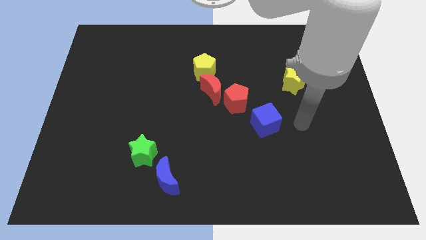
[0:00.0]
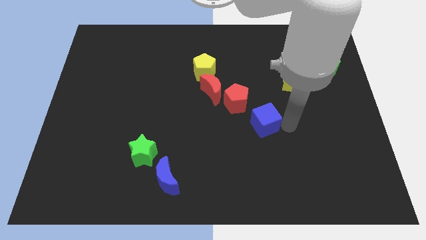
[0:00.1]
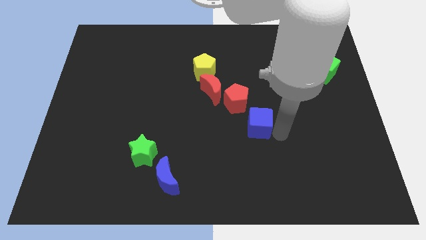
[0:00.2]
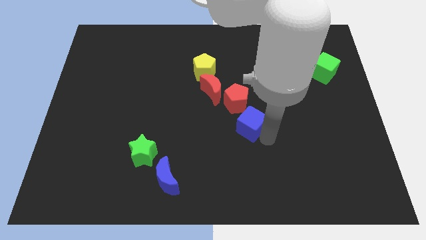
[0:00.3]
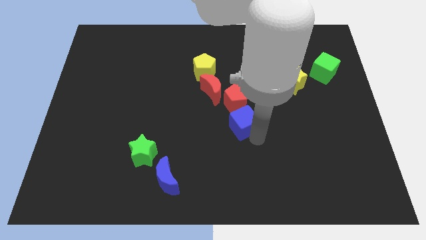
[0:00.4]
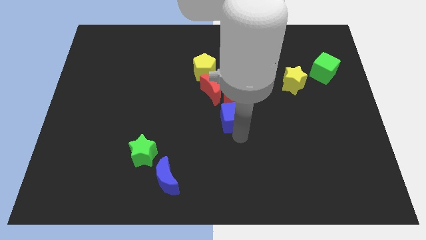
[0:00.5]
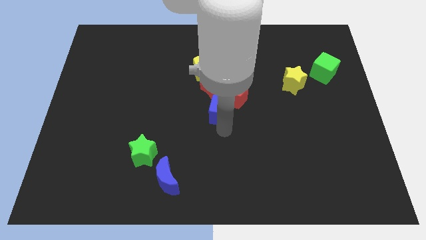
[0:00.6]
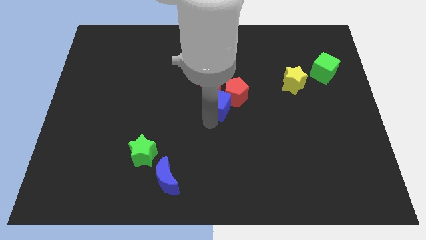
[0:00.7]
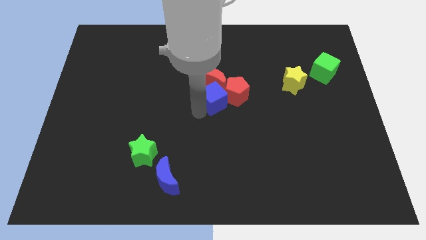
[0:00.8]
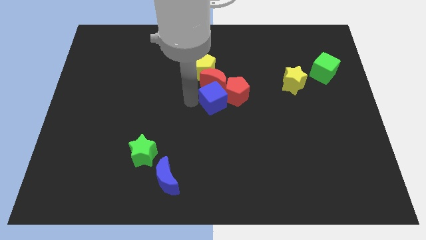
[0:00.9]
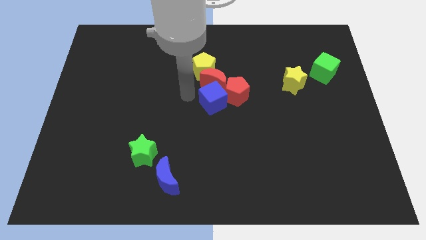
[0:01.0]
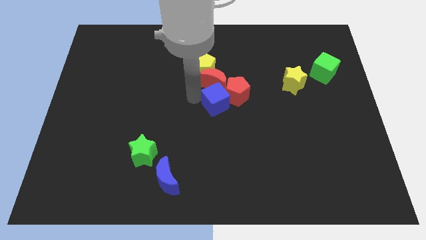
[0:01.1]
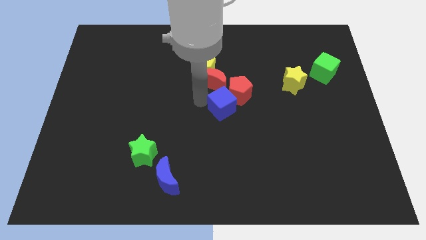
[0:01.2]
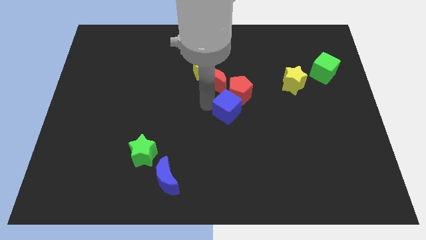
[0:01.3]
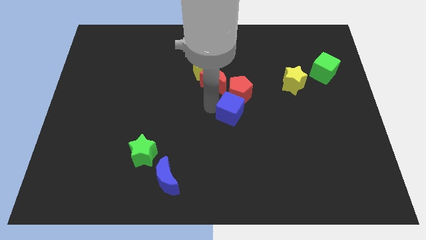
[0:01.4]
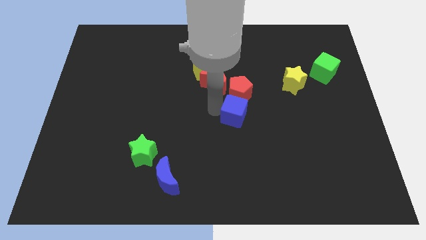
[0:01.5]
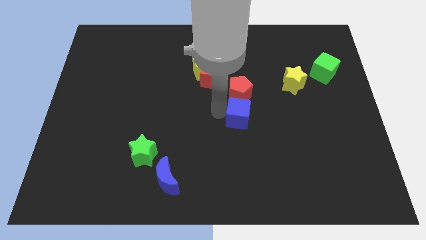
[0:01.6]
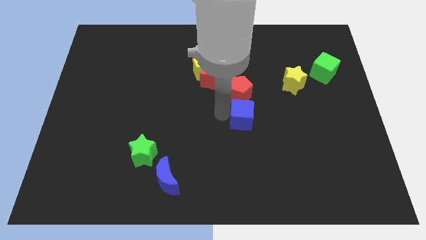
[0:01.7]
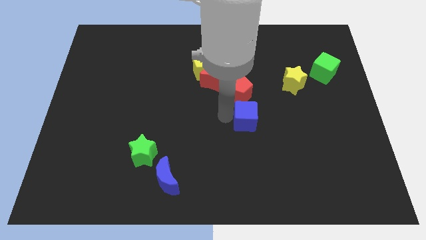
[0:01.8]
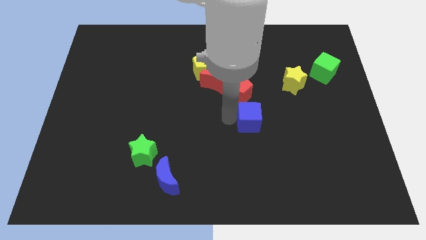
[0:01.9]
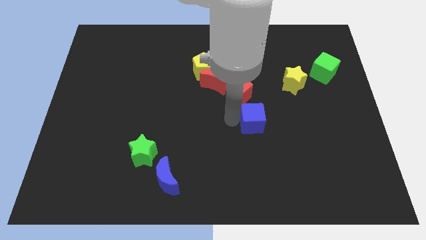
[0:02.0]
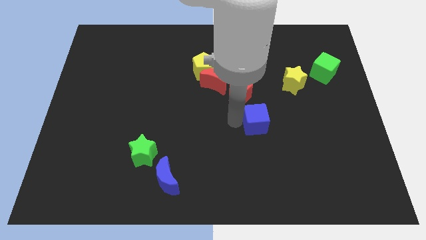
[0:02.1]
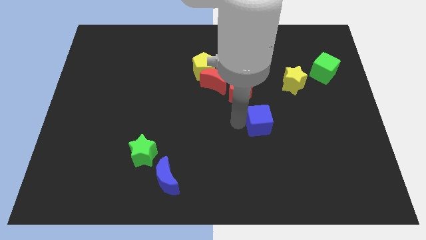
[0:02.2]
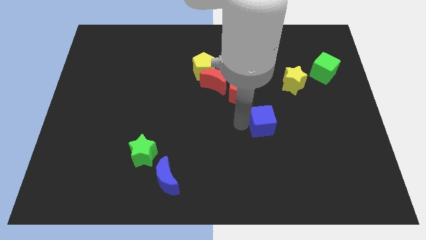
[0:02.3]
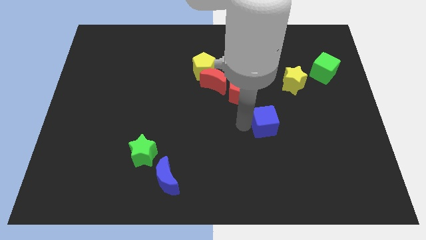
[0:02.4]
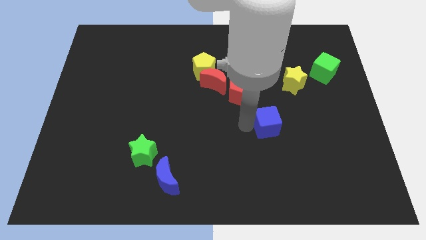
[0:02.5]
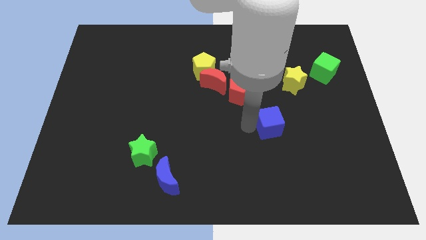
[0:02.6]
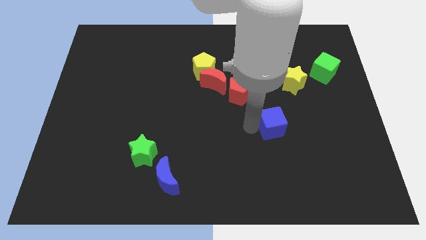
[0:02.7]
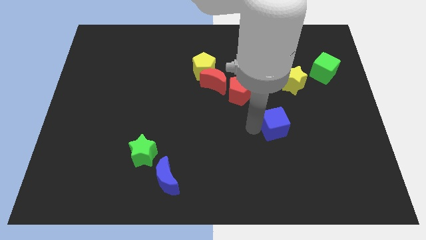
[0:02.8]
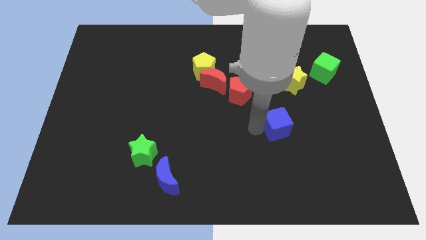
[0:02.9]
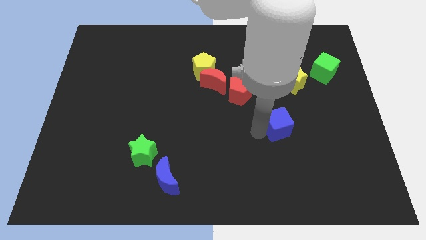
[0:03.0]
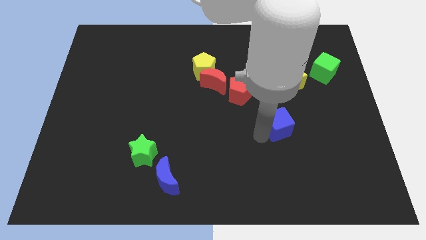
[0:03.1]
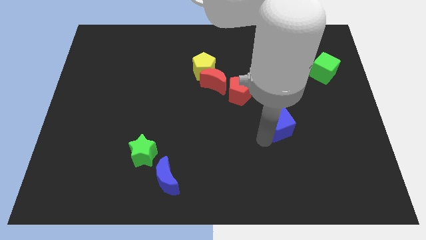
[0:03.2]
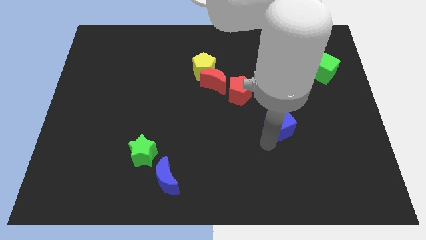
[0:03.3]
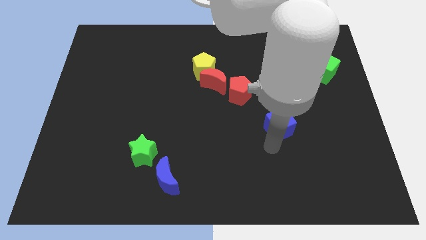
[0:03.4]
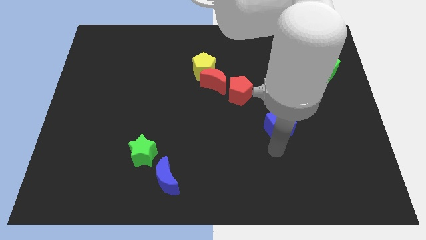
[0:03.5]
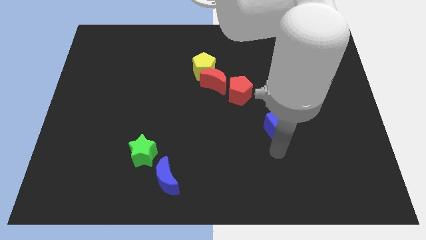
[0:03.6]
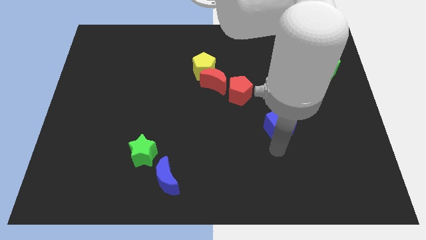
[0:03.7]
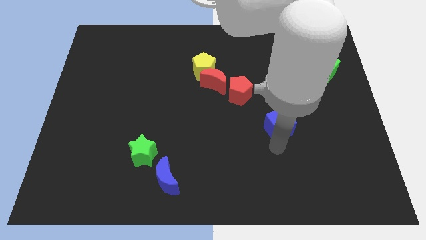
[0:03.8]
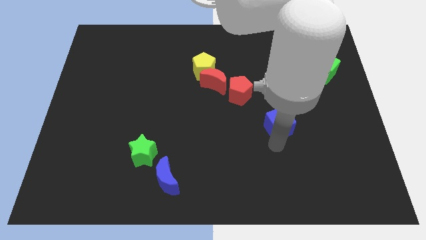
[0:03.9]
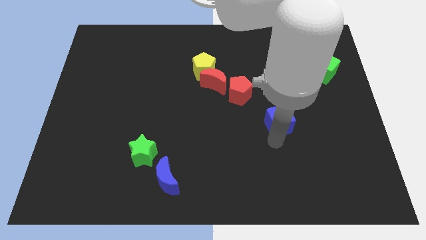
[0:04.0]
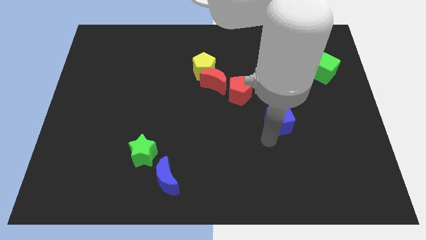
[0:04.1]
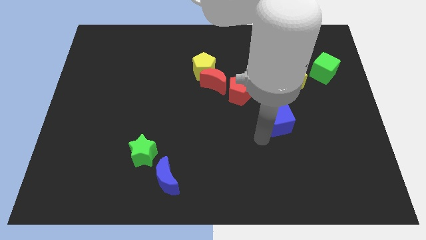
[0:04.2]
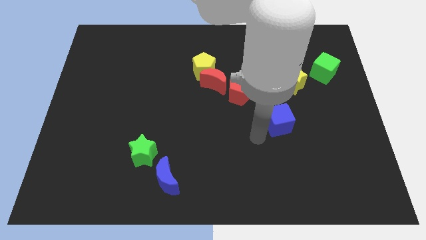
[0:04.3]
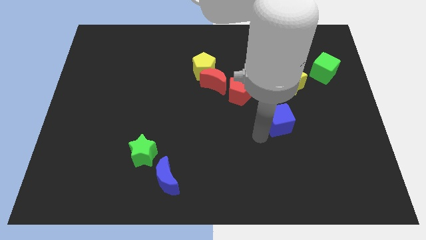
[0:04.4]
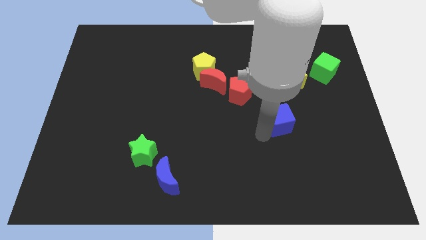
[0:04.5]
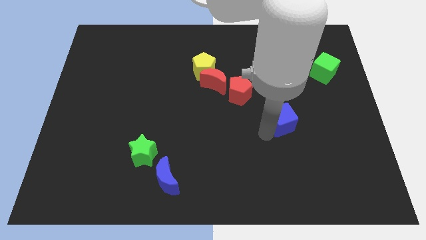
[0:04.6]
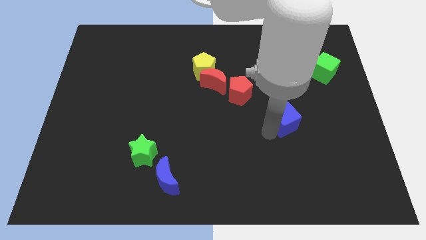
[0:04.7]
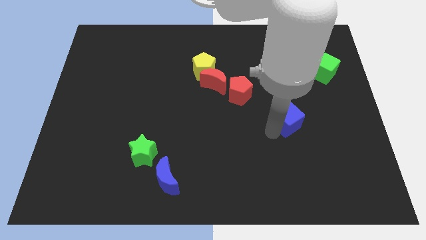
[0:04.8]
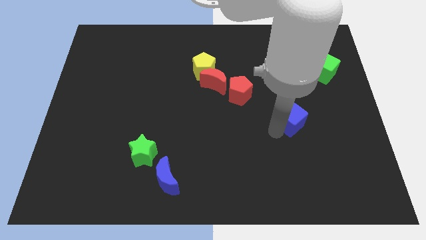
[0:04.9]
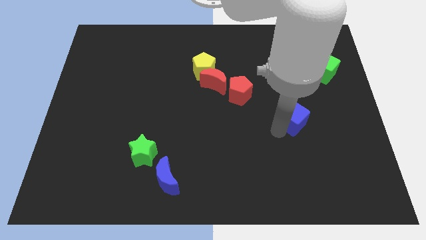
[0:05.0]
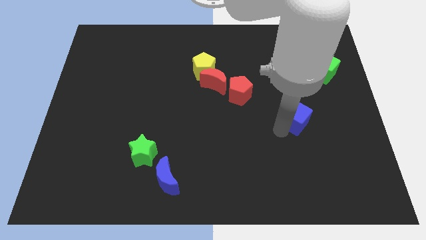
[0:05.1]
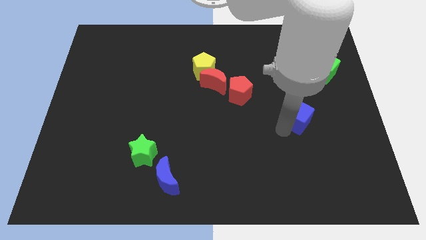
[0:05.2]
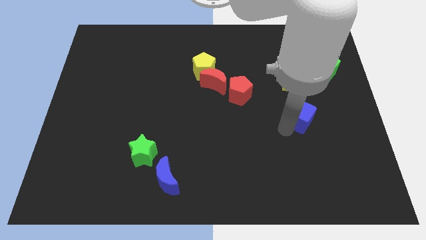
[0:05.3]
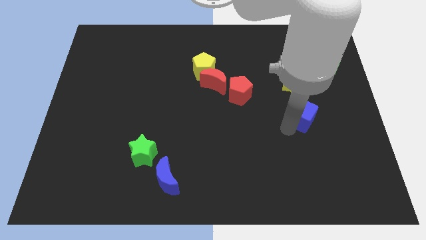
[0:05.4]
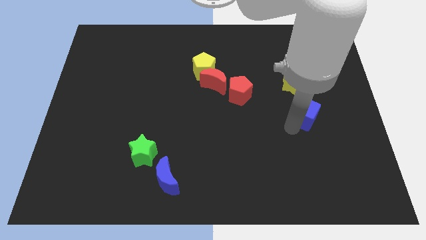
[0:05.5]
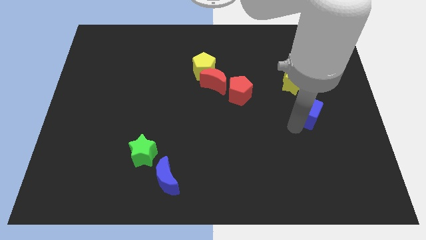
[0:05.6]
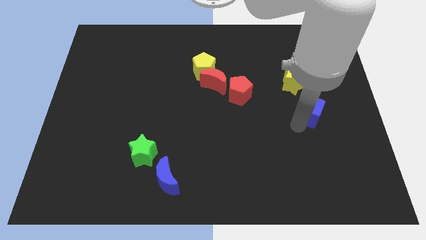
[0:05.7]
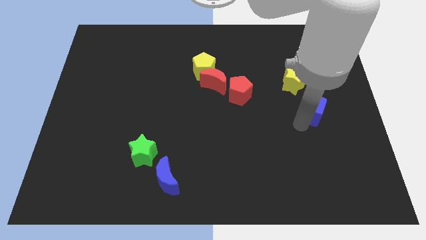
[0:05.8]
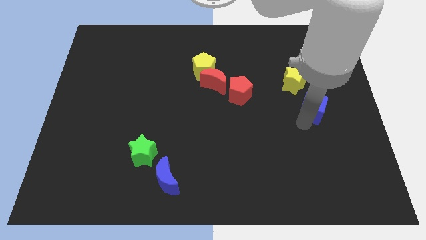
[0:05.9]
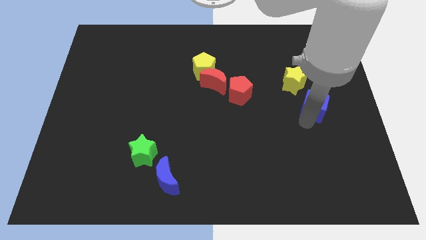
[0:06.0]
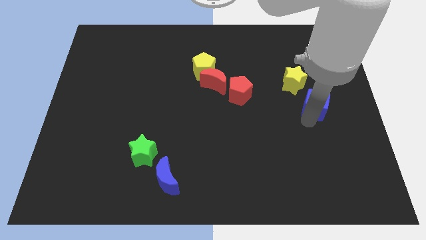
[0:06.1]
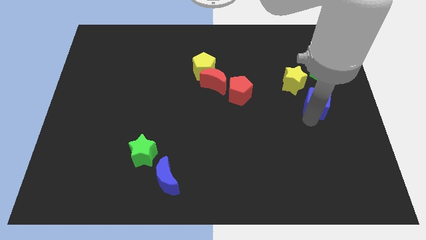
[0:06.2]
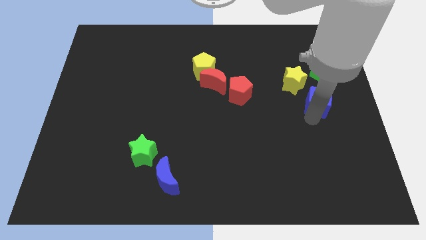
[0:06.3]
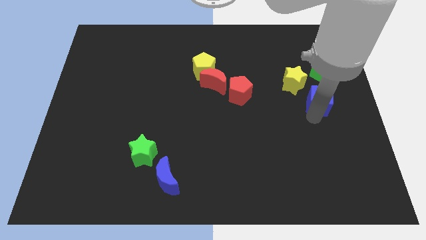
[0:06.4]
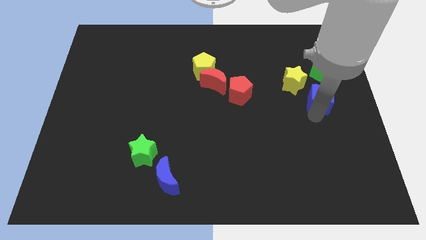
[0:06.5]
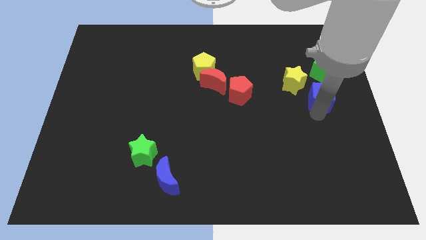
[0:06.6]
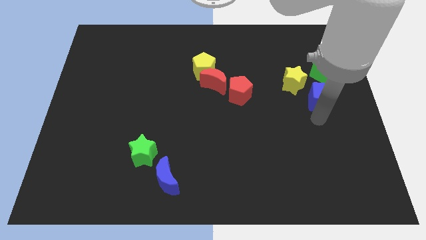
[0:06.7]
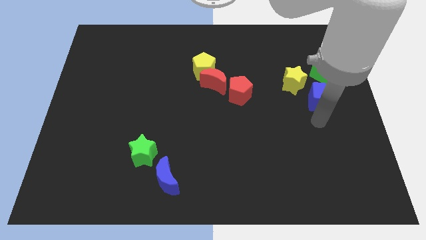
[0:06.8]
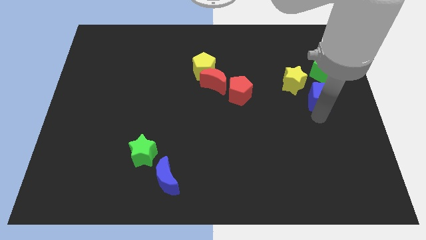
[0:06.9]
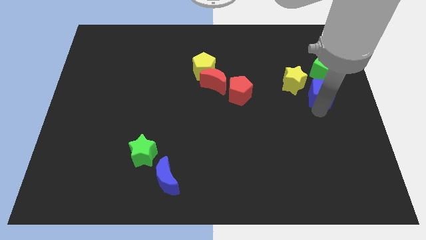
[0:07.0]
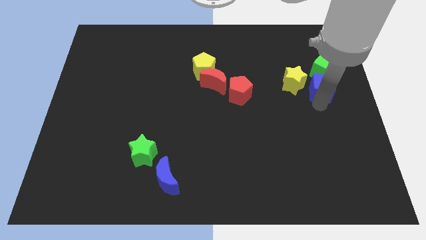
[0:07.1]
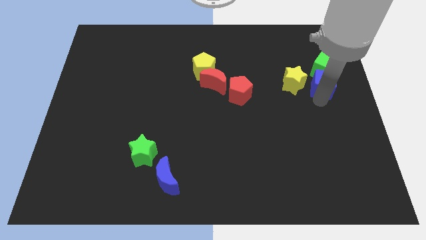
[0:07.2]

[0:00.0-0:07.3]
move the blue cube towards the green cube

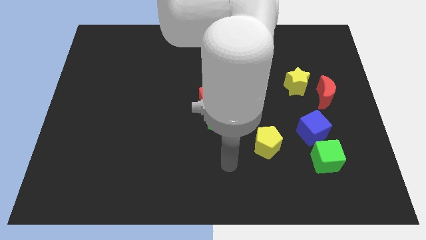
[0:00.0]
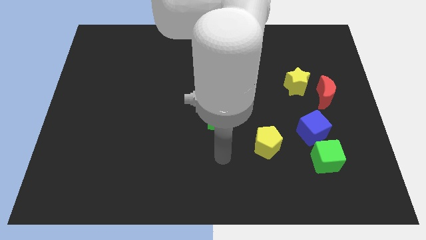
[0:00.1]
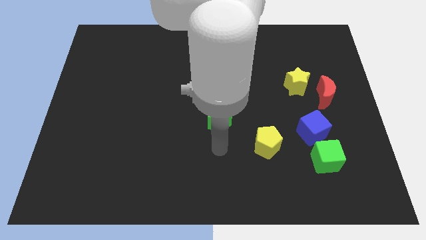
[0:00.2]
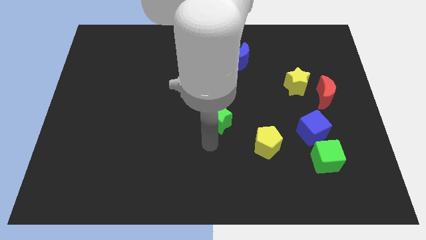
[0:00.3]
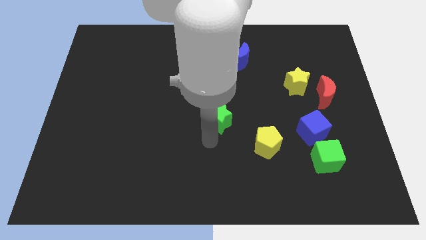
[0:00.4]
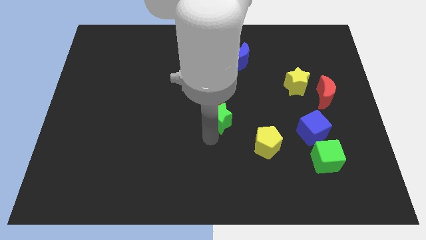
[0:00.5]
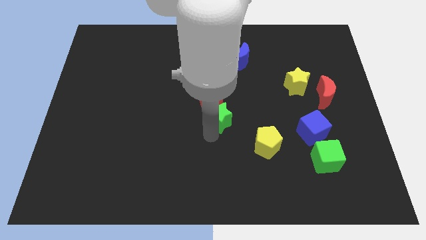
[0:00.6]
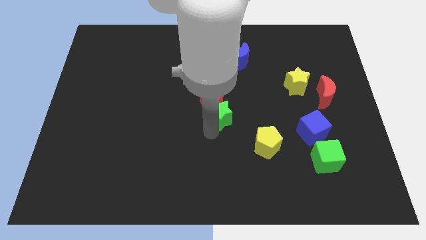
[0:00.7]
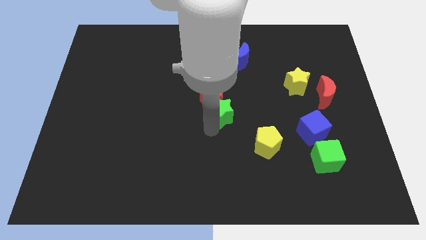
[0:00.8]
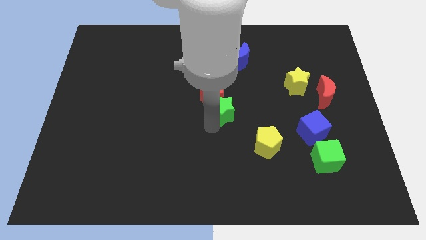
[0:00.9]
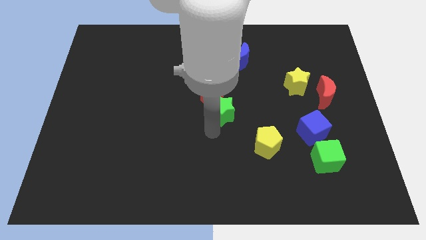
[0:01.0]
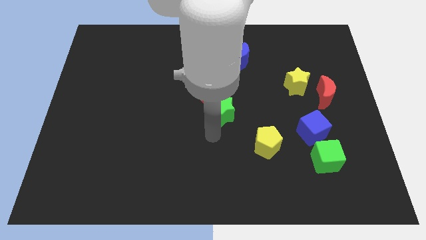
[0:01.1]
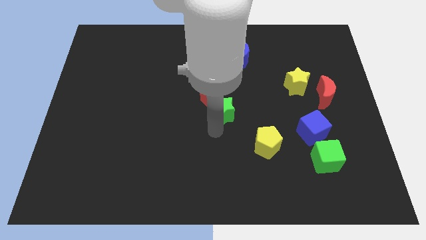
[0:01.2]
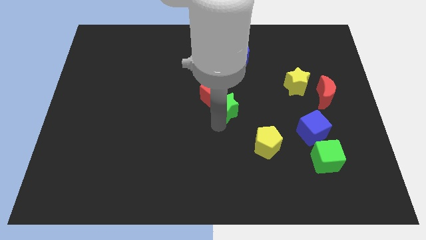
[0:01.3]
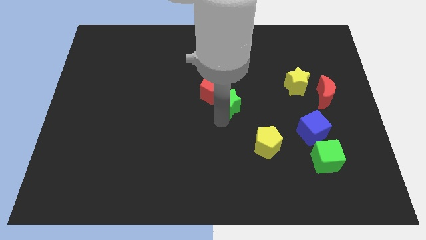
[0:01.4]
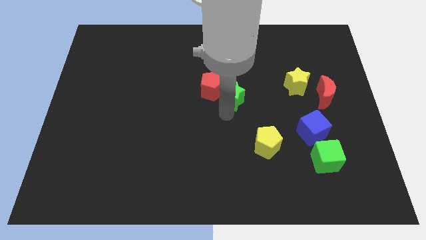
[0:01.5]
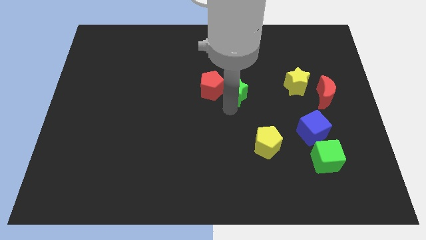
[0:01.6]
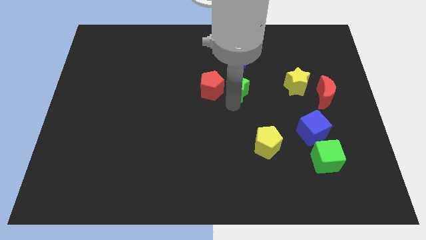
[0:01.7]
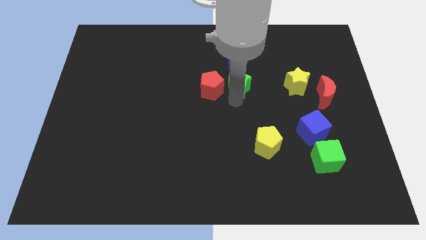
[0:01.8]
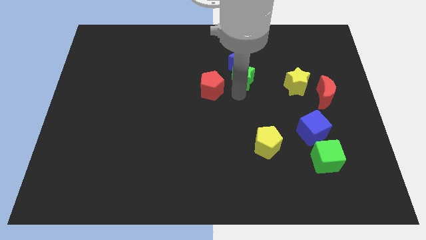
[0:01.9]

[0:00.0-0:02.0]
slide the green star next to the blue moon
